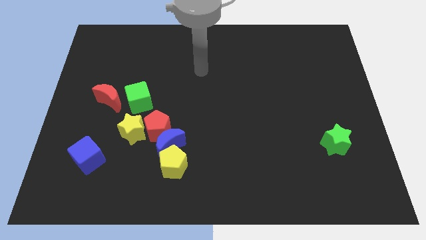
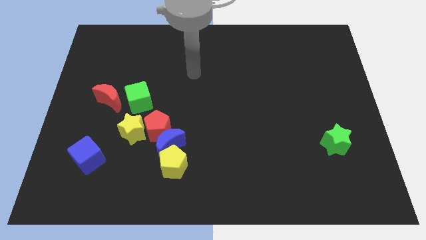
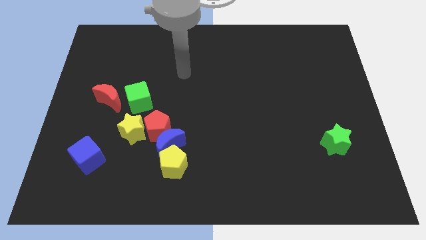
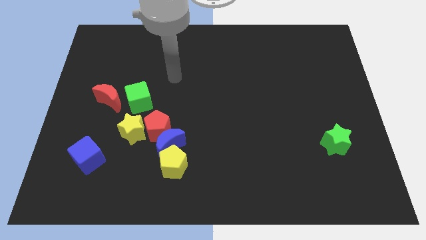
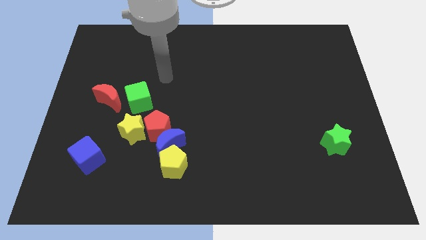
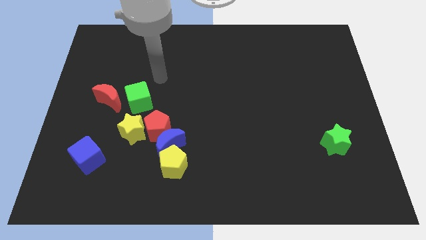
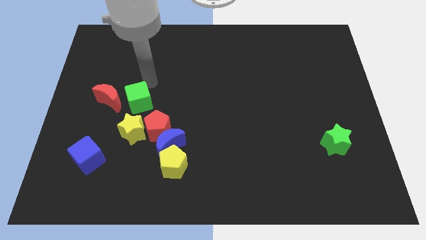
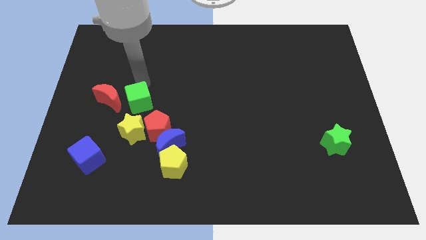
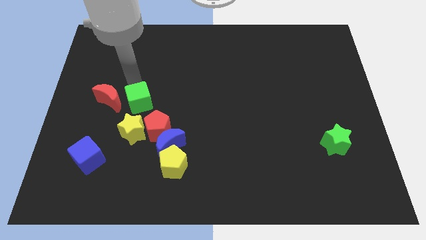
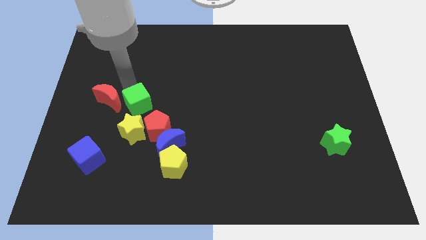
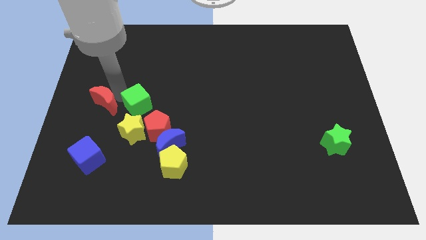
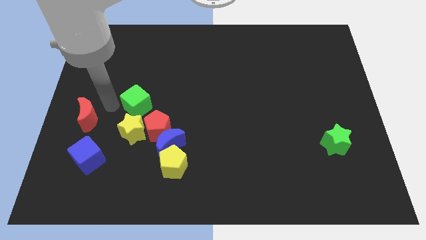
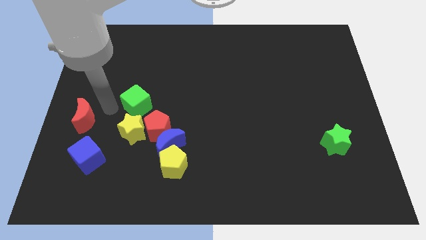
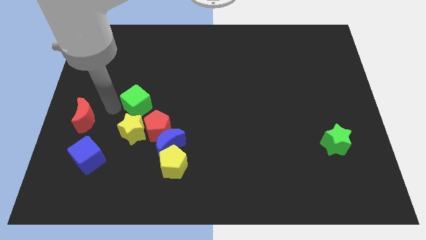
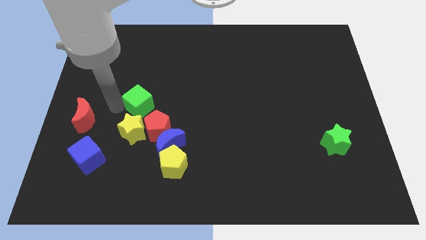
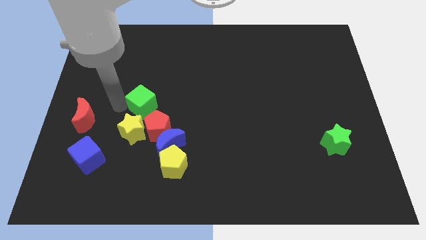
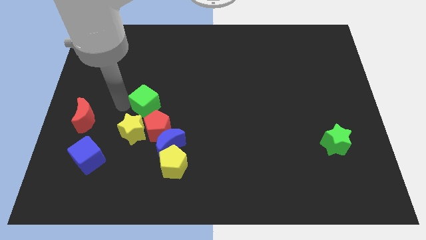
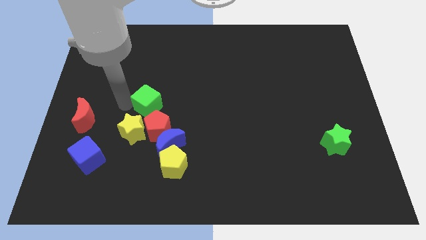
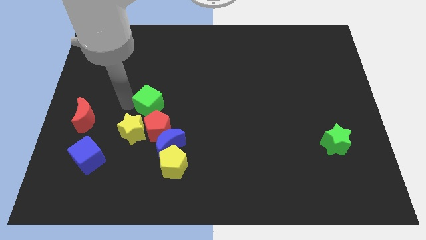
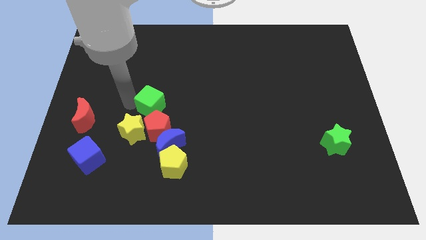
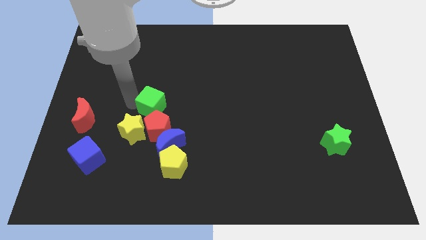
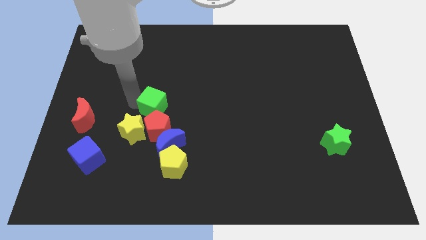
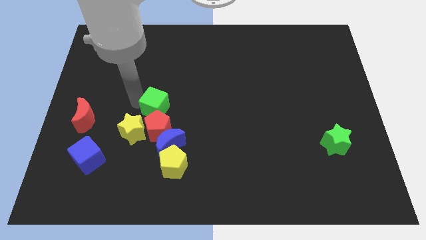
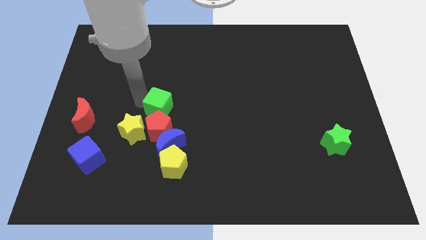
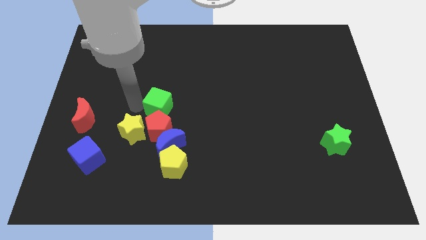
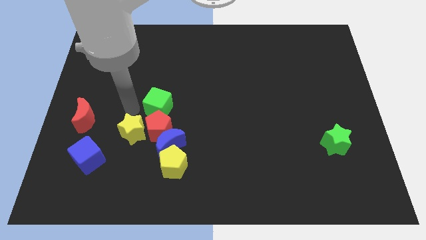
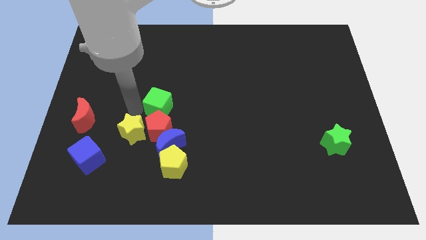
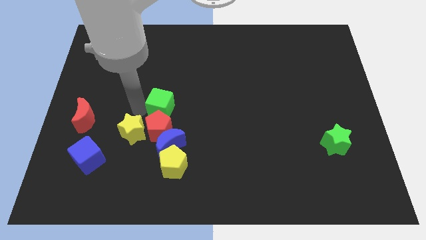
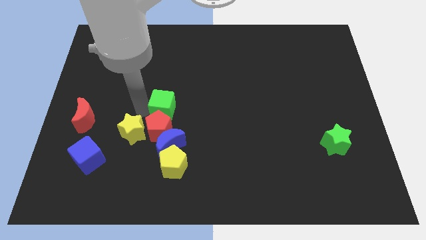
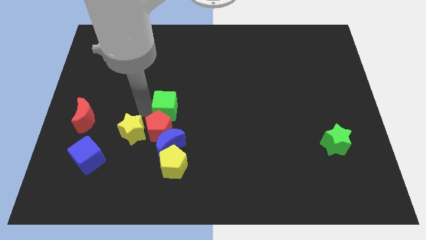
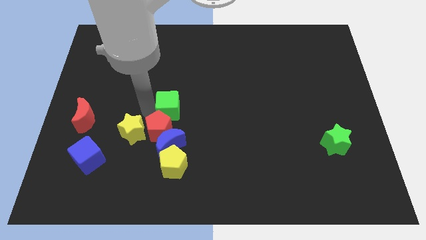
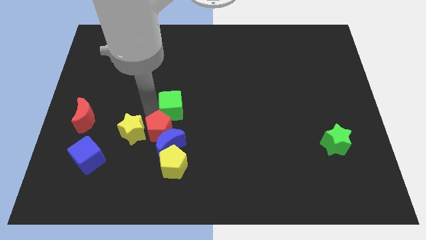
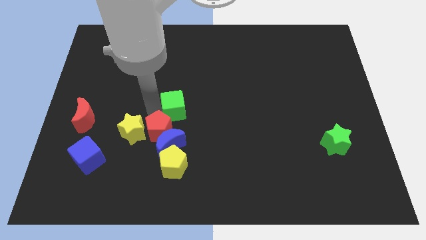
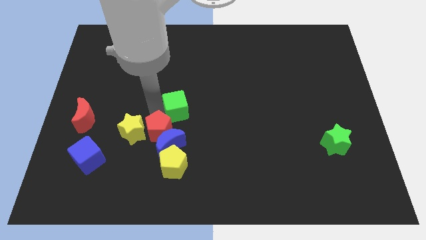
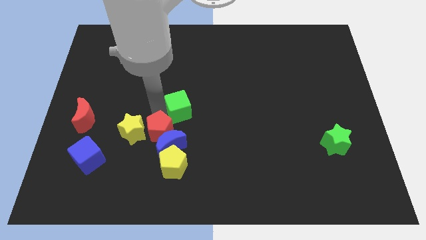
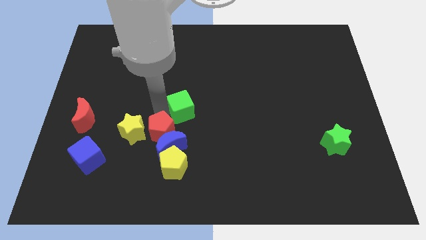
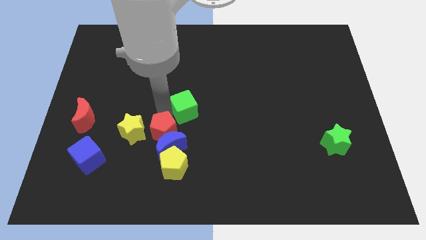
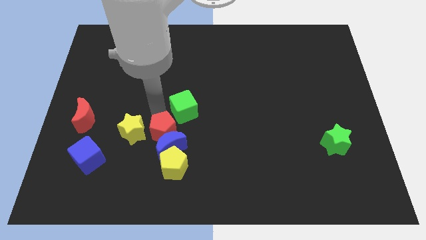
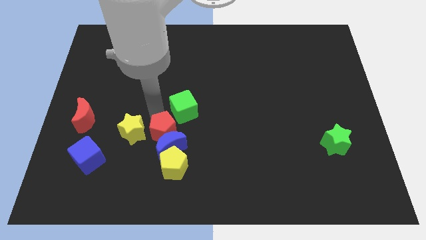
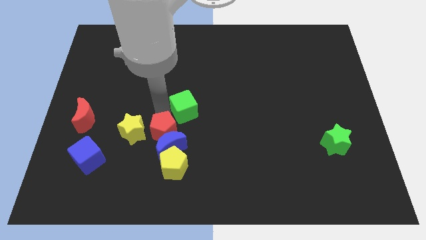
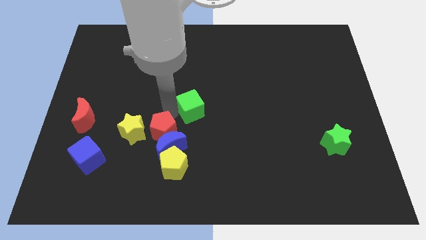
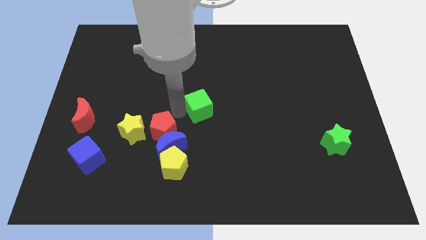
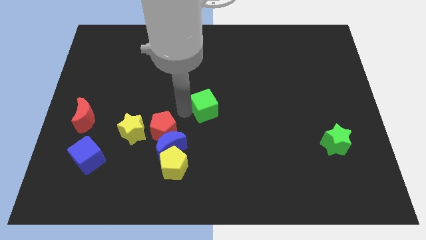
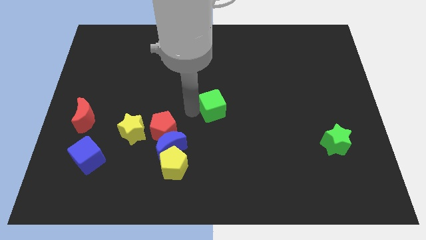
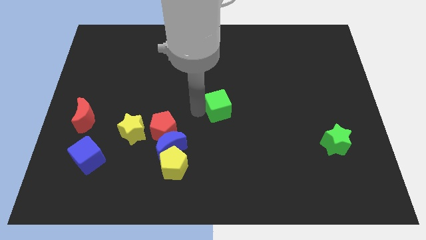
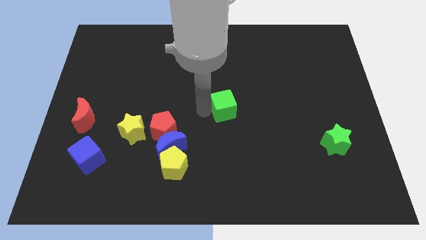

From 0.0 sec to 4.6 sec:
move the green cube right

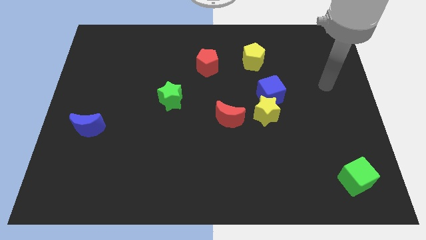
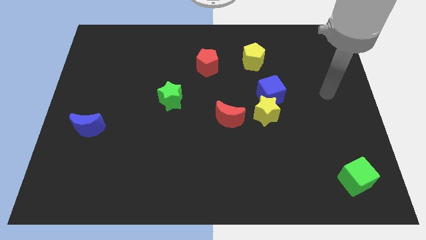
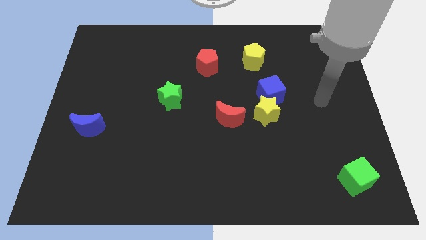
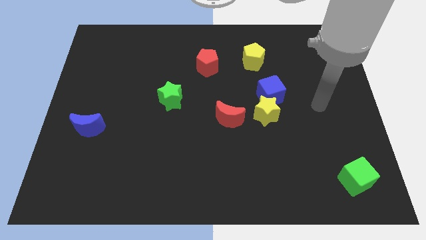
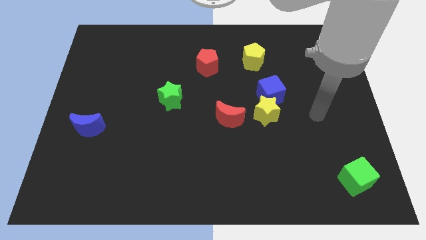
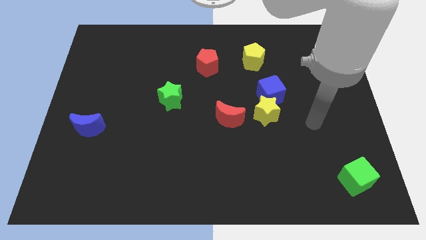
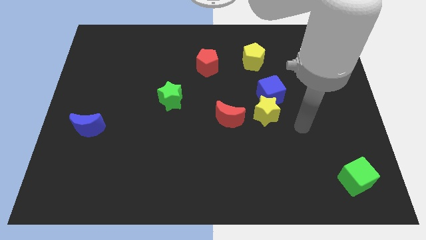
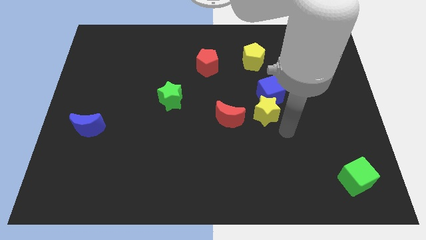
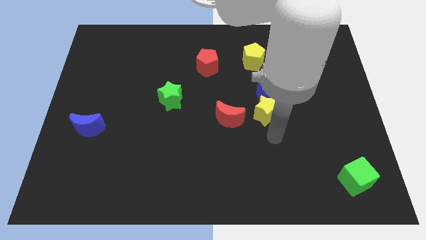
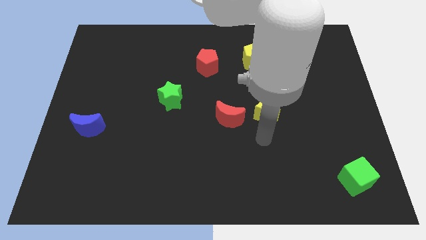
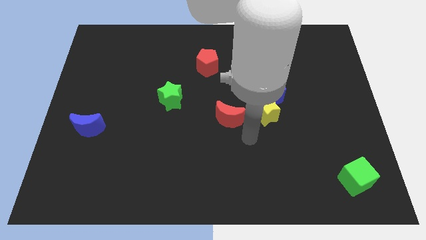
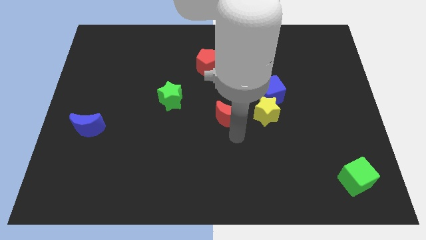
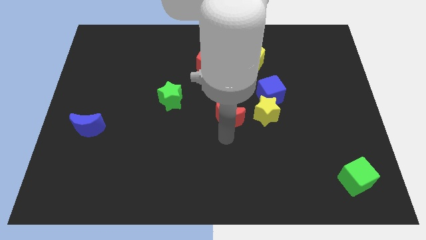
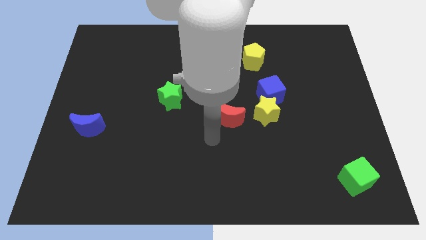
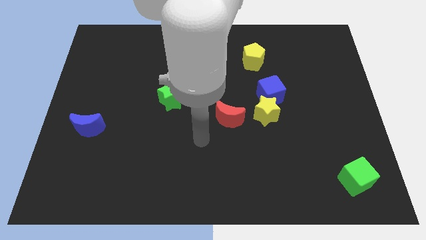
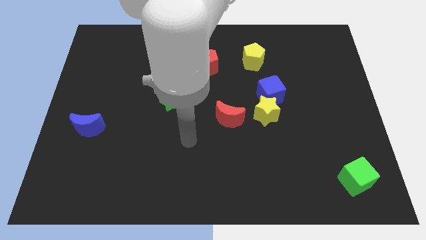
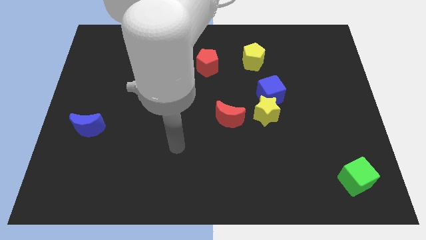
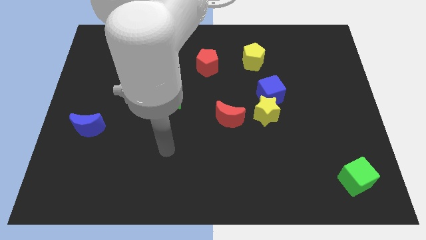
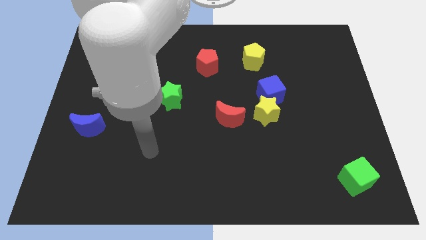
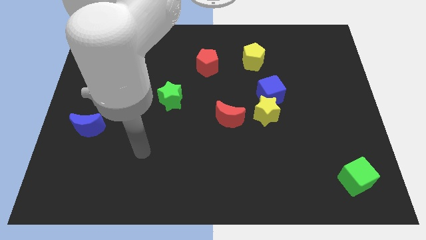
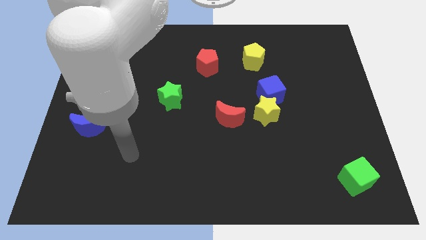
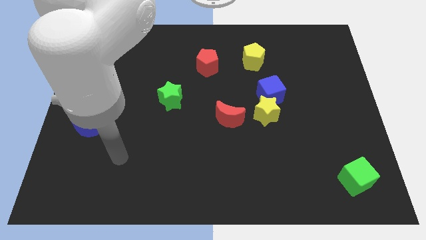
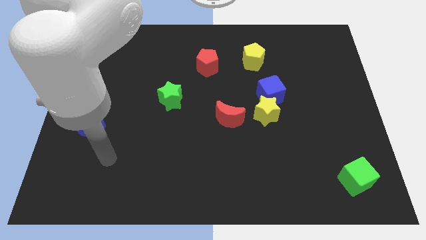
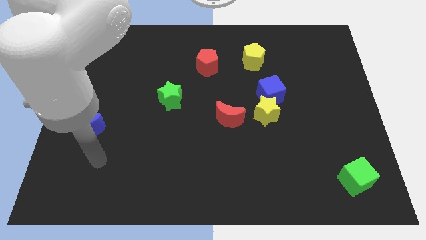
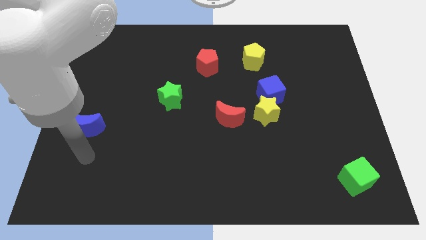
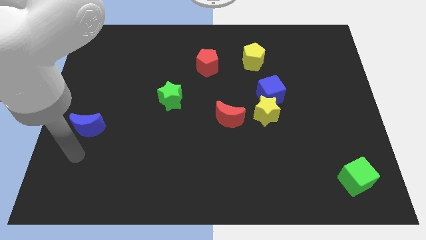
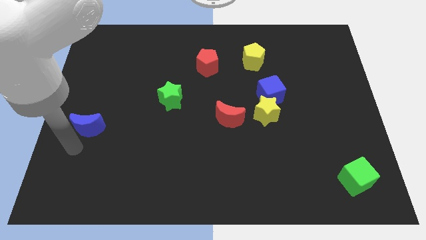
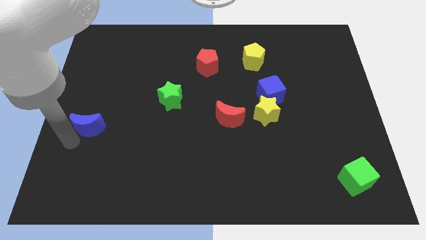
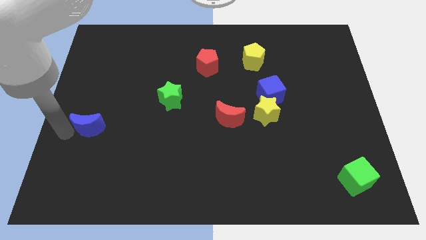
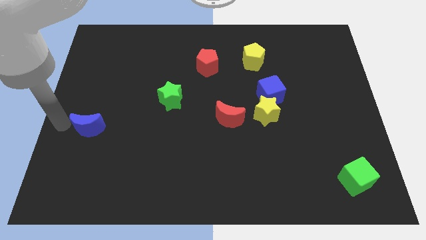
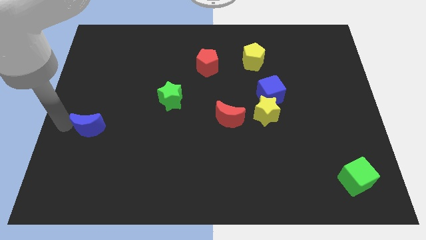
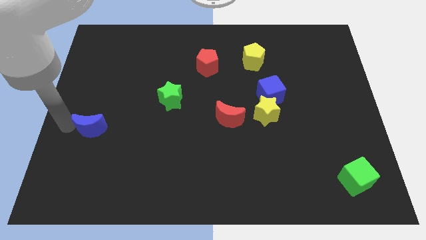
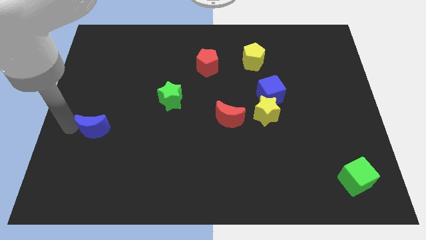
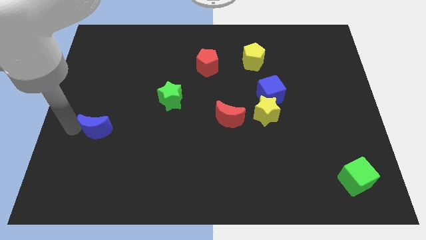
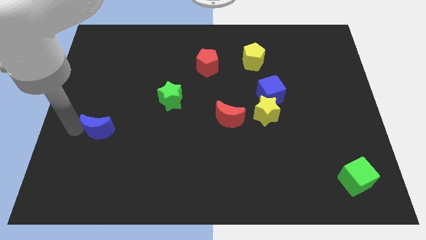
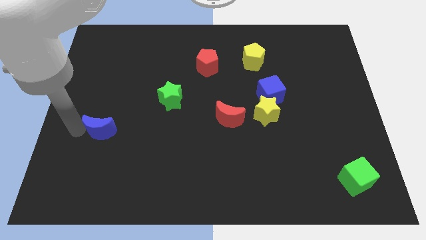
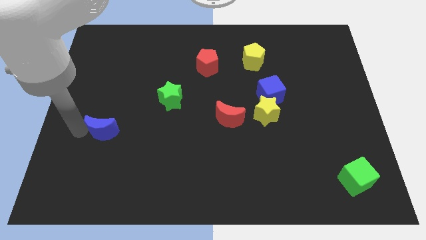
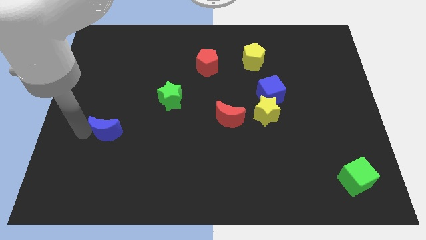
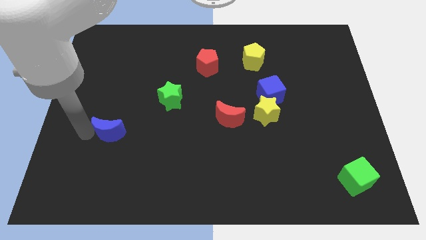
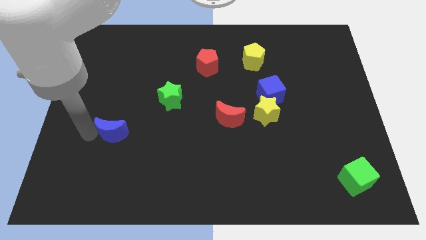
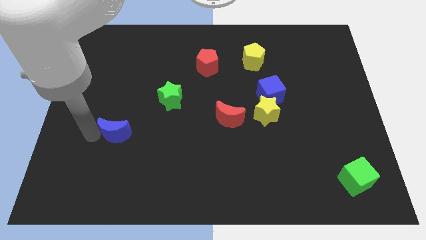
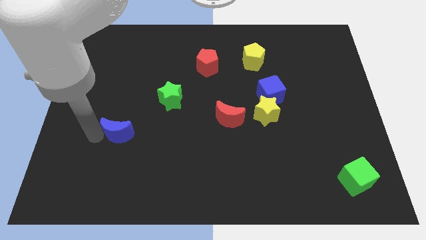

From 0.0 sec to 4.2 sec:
move the blue moon right slightly
